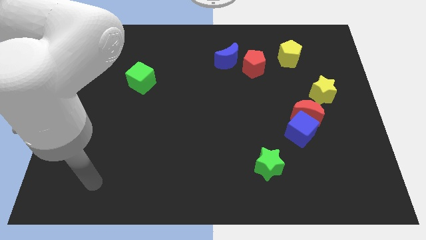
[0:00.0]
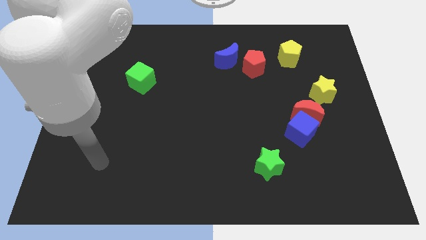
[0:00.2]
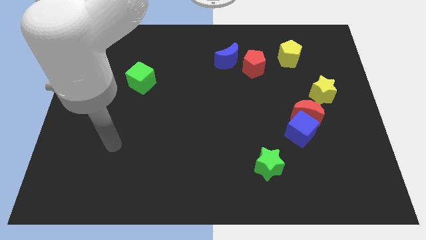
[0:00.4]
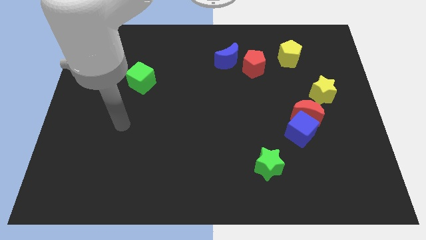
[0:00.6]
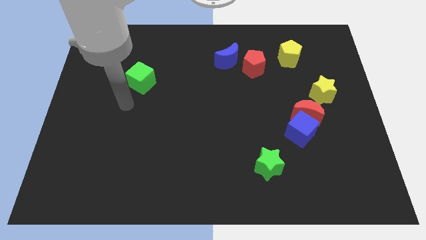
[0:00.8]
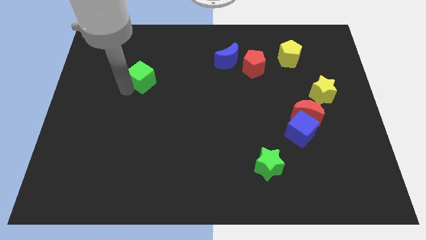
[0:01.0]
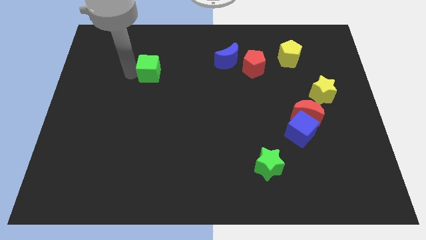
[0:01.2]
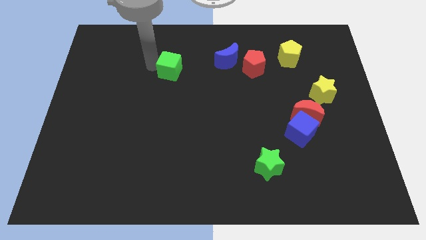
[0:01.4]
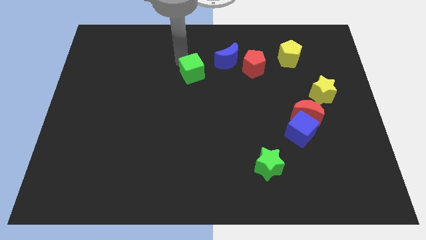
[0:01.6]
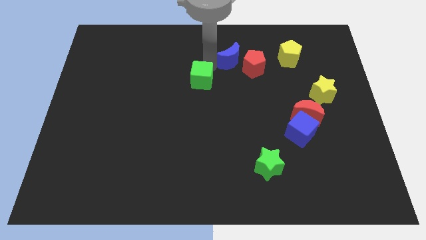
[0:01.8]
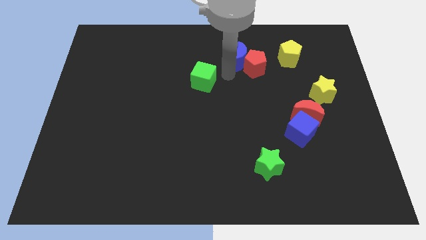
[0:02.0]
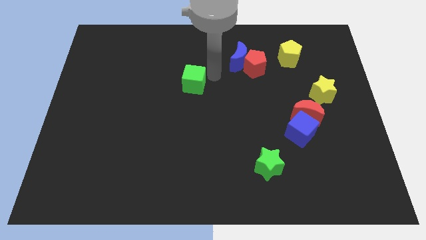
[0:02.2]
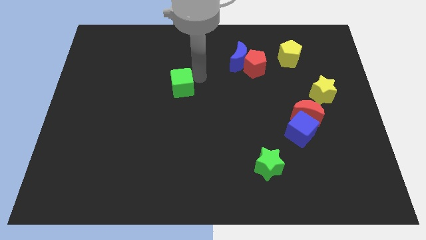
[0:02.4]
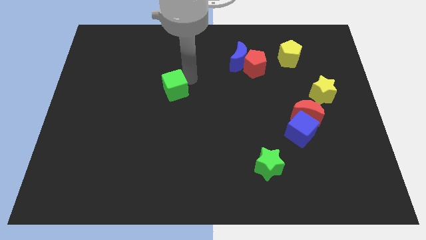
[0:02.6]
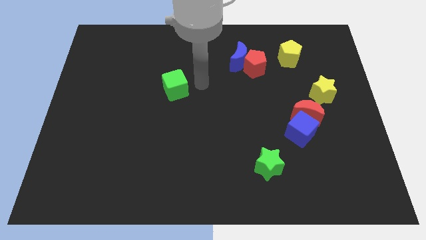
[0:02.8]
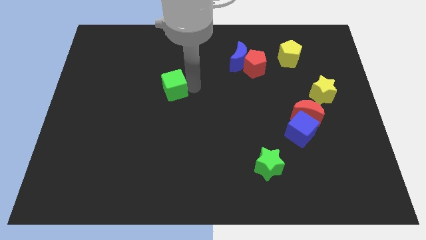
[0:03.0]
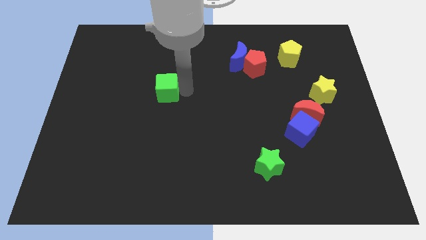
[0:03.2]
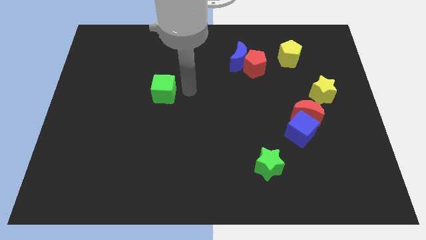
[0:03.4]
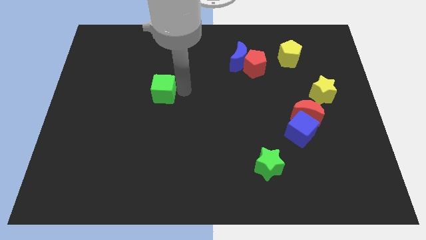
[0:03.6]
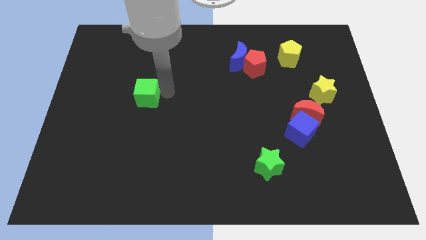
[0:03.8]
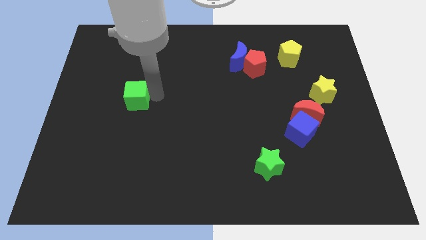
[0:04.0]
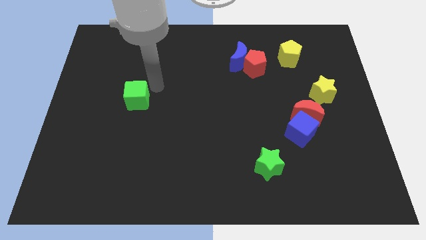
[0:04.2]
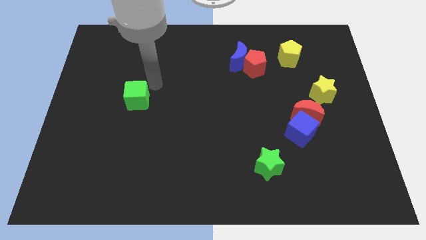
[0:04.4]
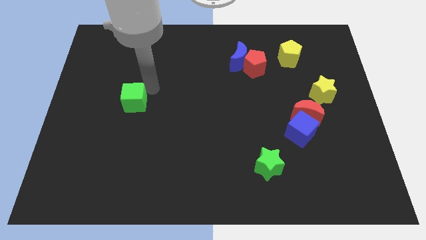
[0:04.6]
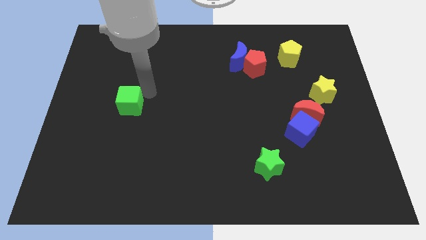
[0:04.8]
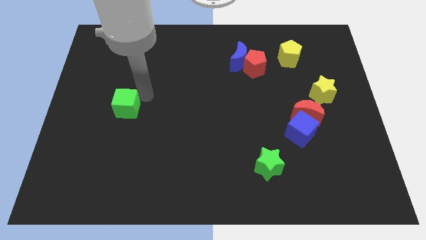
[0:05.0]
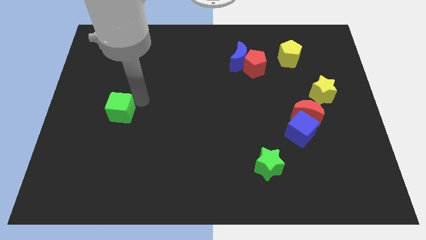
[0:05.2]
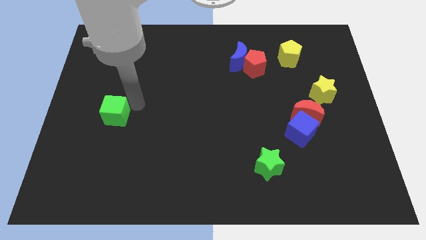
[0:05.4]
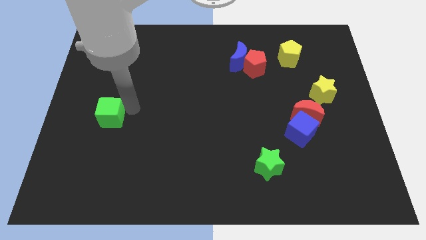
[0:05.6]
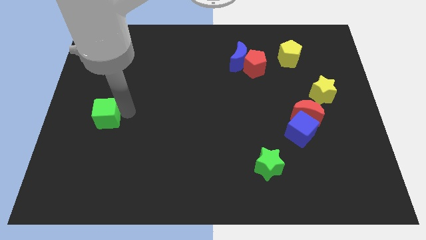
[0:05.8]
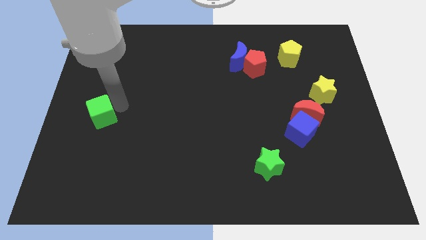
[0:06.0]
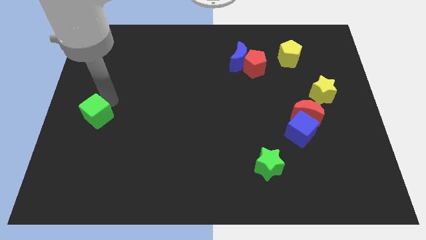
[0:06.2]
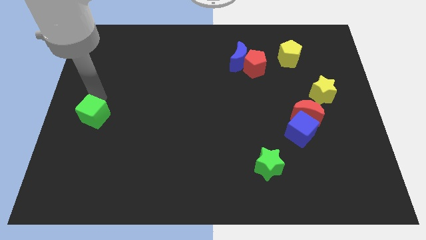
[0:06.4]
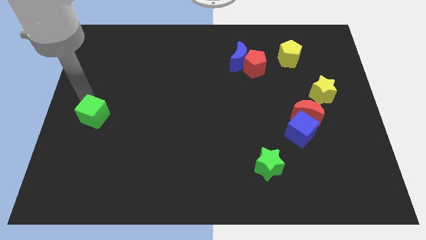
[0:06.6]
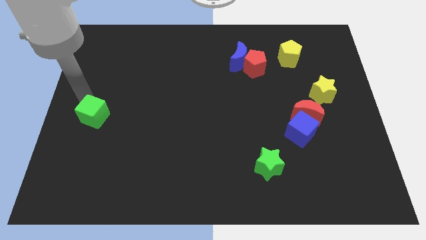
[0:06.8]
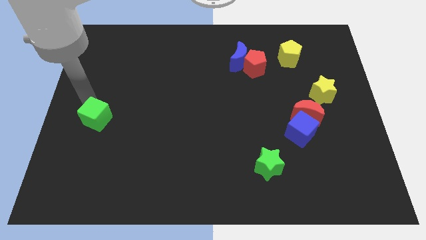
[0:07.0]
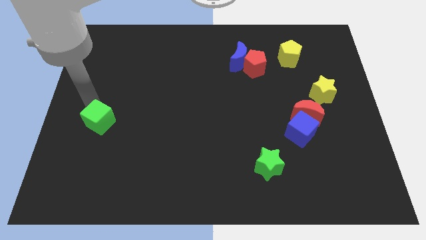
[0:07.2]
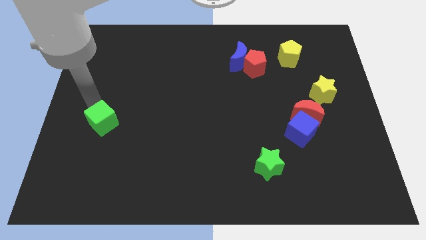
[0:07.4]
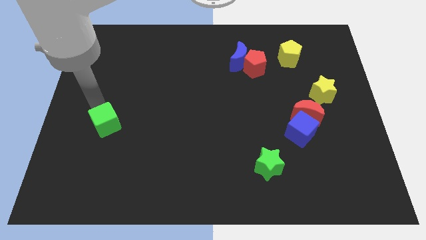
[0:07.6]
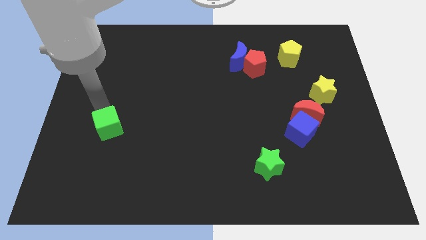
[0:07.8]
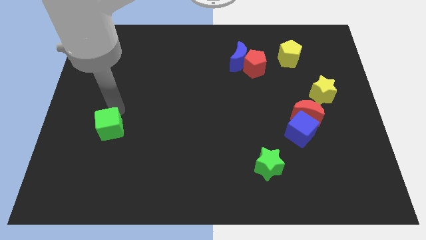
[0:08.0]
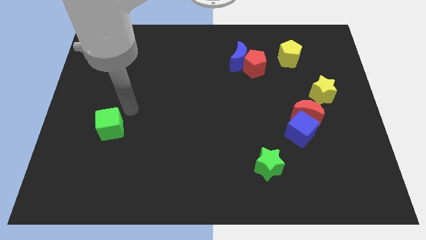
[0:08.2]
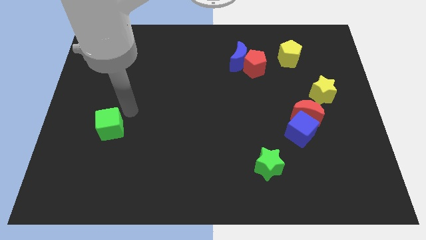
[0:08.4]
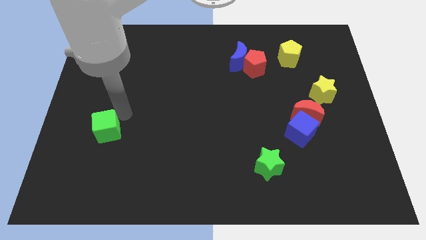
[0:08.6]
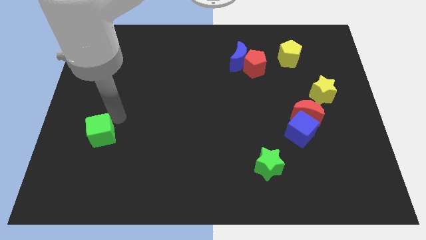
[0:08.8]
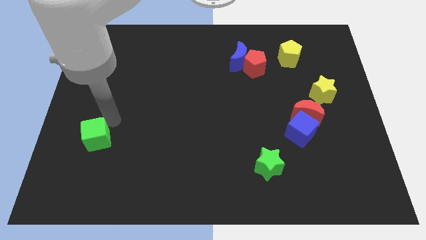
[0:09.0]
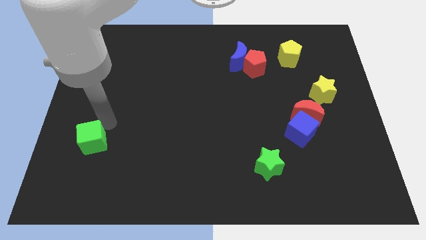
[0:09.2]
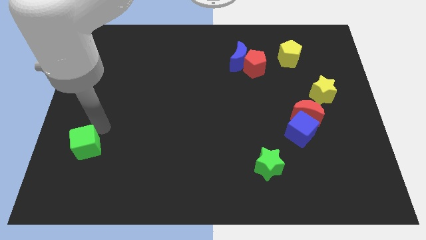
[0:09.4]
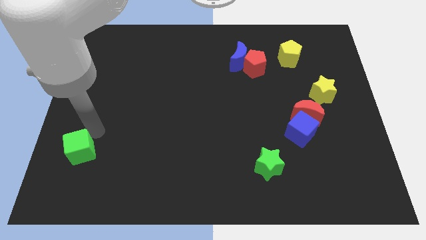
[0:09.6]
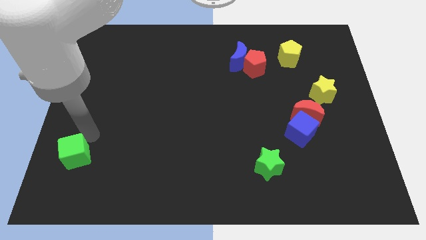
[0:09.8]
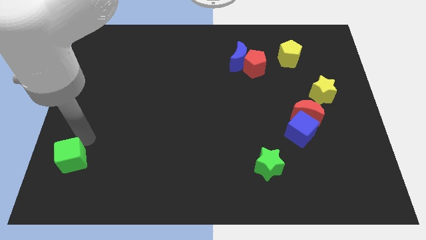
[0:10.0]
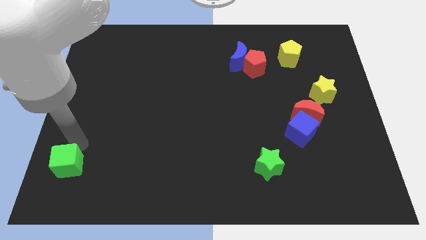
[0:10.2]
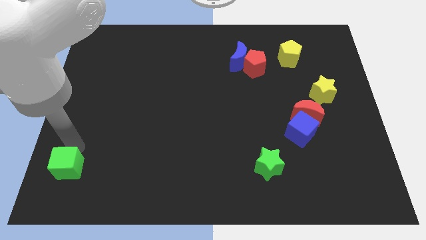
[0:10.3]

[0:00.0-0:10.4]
put the green cube to the bottom left corner

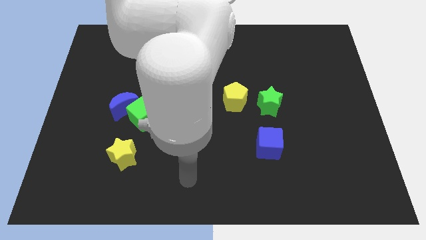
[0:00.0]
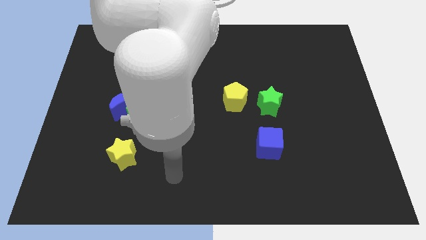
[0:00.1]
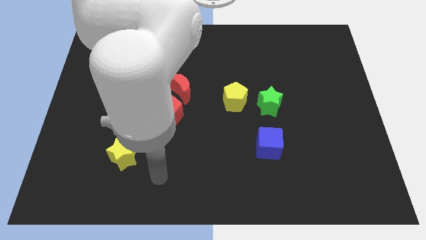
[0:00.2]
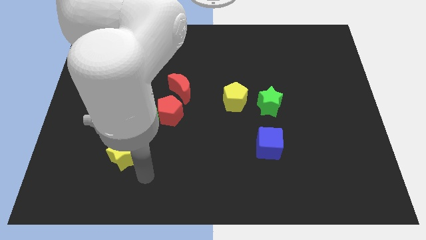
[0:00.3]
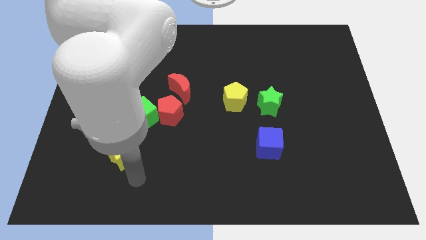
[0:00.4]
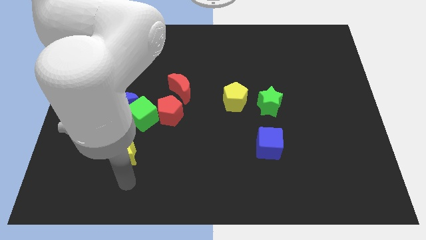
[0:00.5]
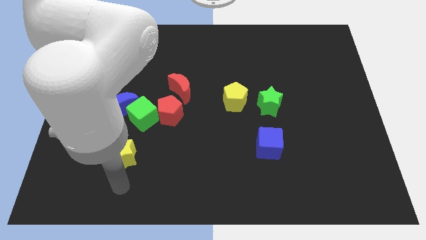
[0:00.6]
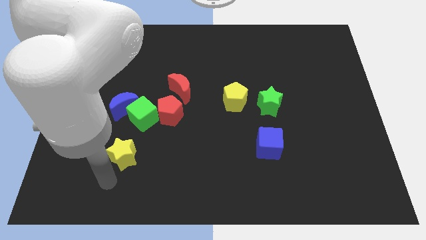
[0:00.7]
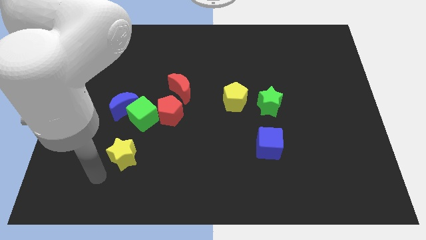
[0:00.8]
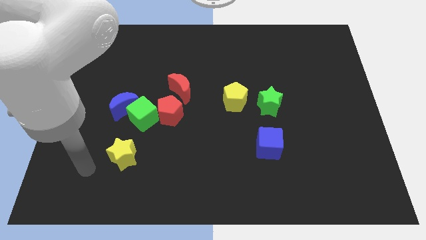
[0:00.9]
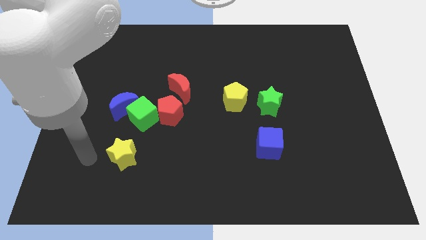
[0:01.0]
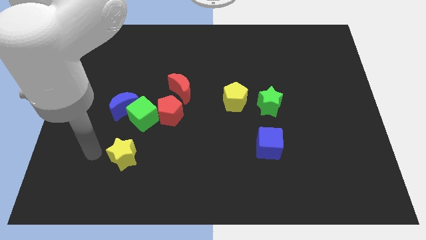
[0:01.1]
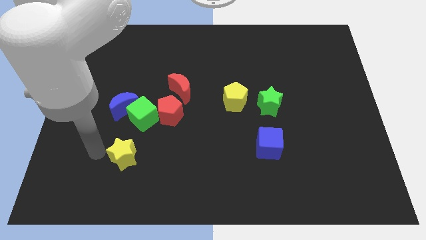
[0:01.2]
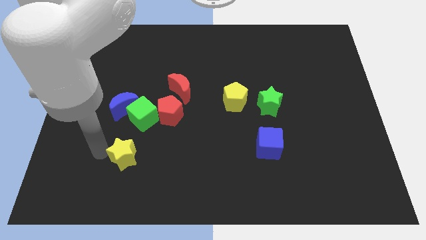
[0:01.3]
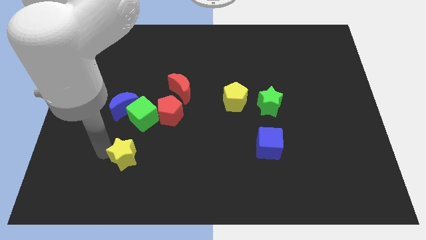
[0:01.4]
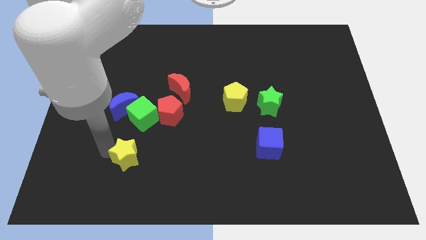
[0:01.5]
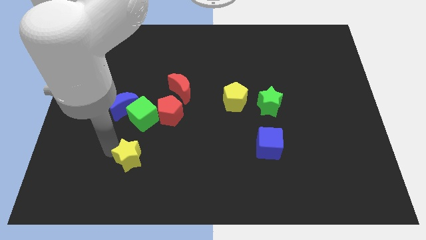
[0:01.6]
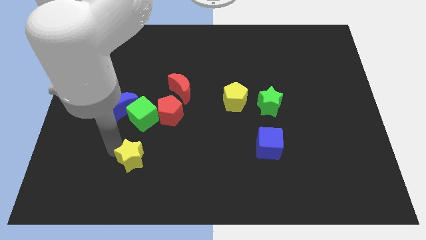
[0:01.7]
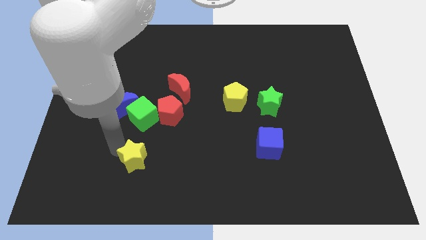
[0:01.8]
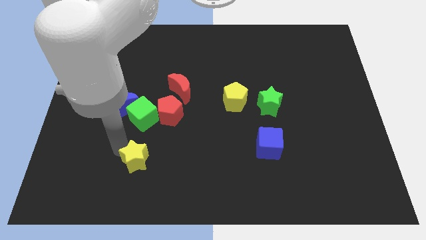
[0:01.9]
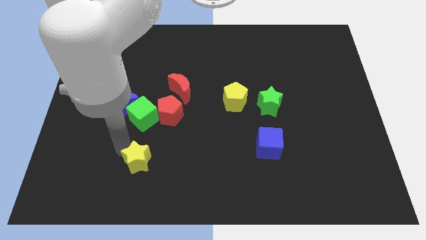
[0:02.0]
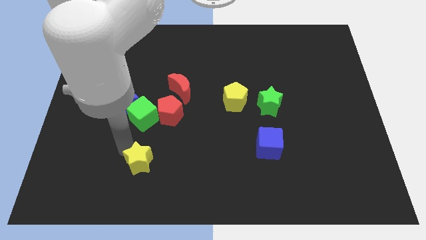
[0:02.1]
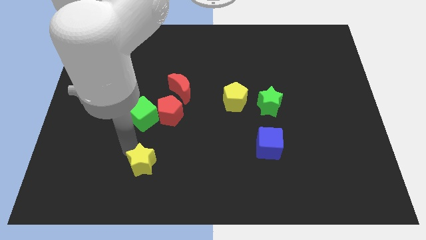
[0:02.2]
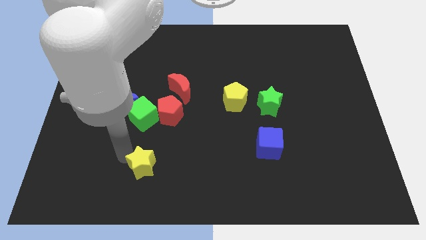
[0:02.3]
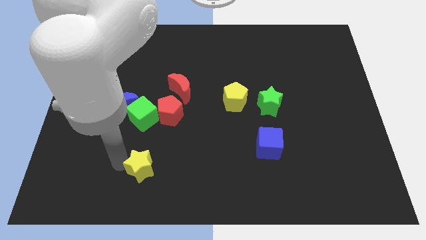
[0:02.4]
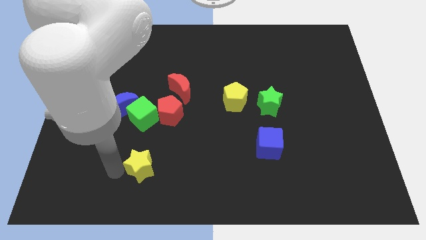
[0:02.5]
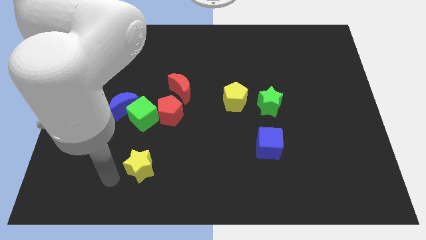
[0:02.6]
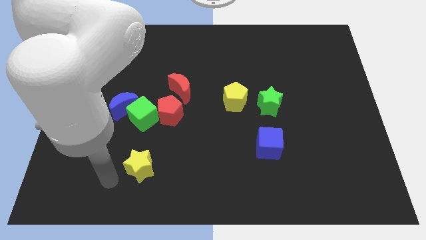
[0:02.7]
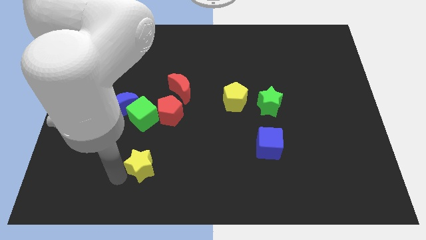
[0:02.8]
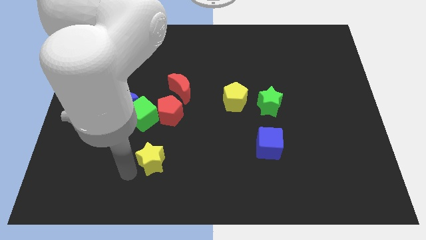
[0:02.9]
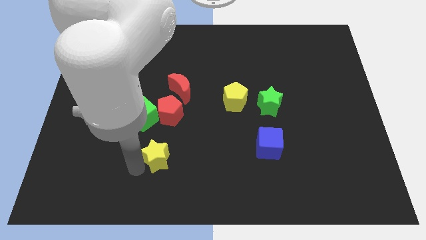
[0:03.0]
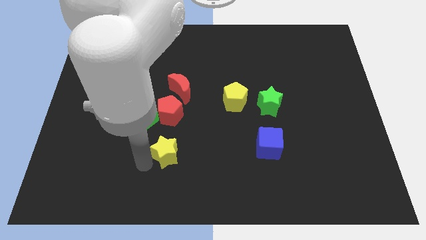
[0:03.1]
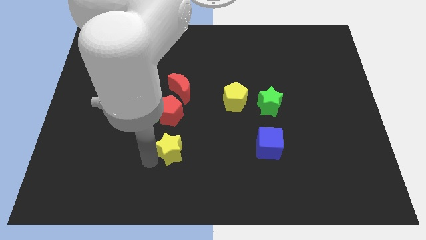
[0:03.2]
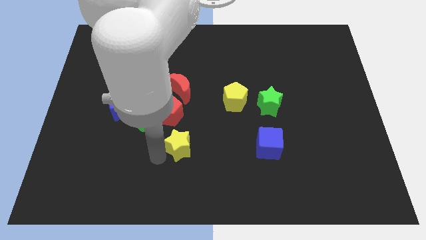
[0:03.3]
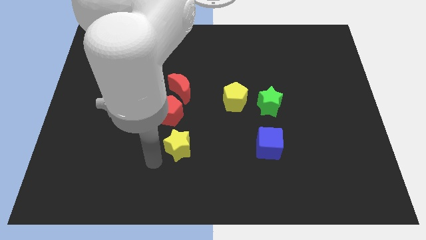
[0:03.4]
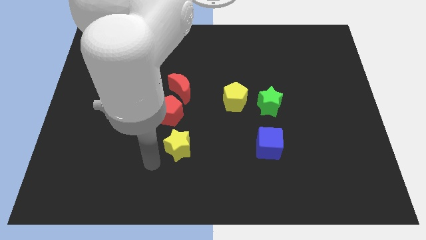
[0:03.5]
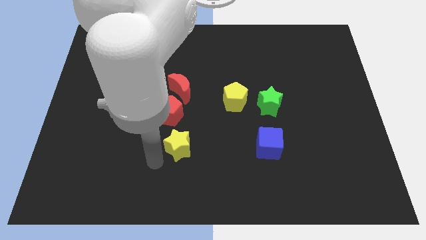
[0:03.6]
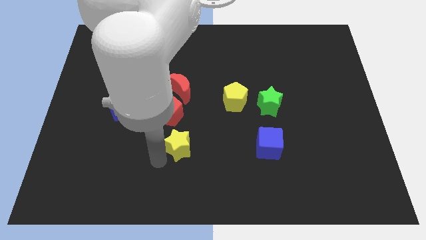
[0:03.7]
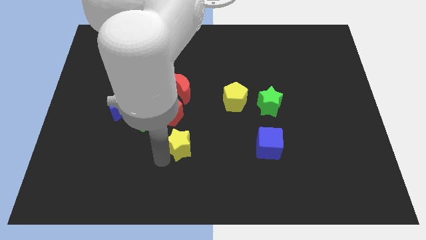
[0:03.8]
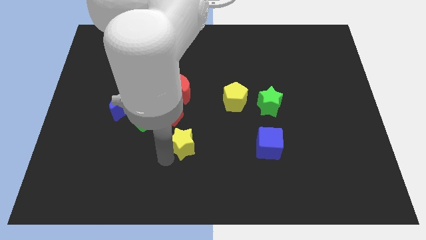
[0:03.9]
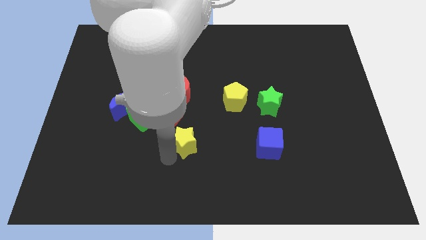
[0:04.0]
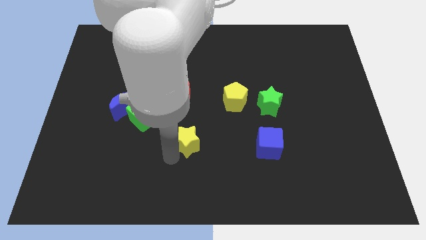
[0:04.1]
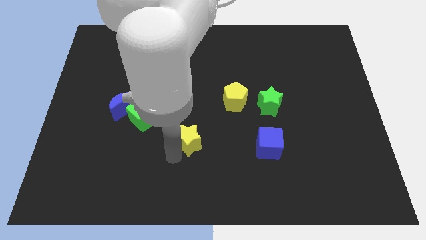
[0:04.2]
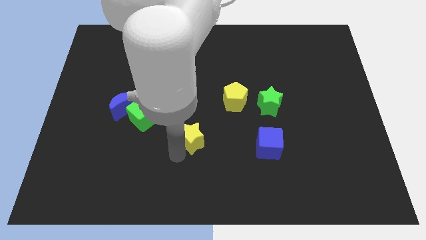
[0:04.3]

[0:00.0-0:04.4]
move the yellow star to the middle of the board
